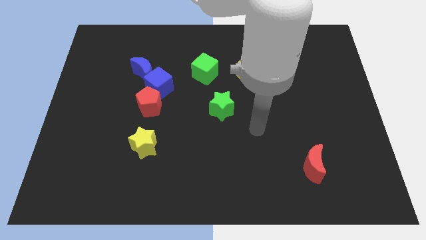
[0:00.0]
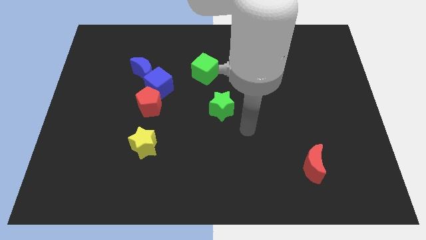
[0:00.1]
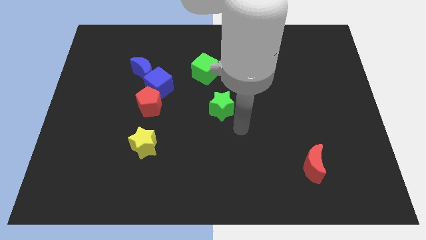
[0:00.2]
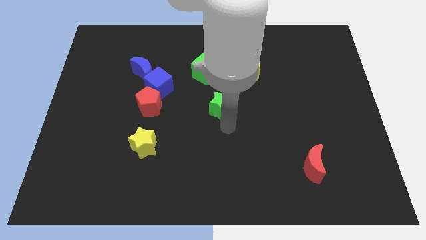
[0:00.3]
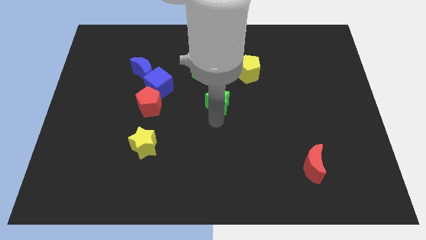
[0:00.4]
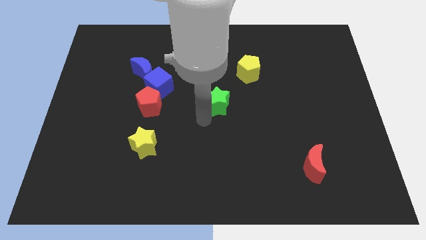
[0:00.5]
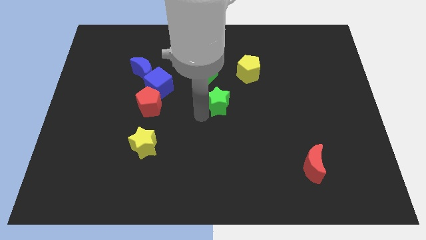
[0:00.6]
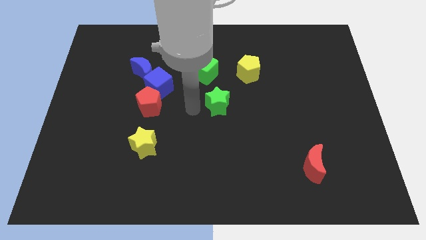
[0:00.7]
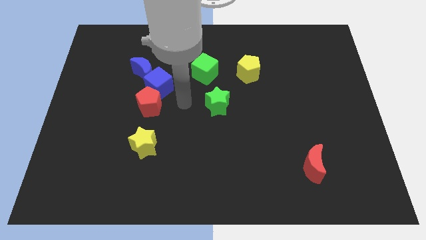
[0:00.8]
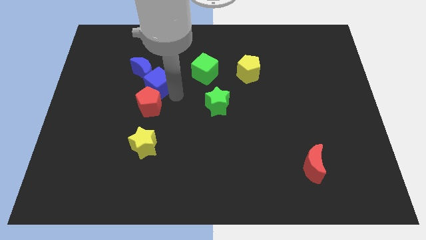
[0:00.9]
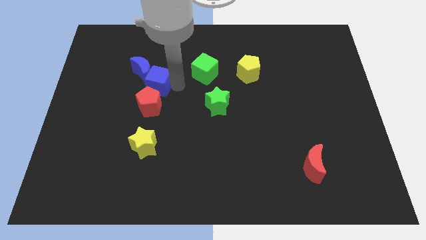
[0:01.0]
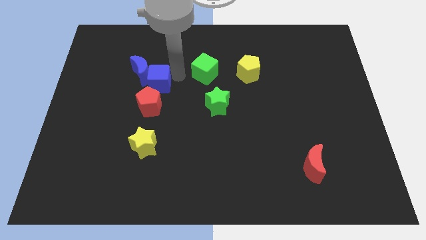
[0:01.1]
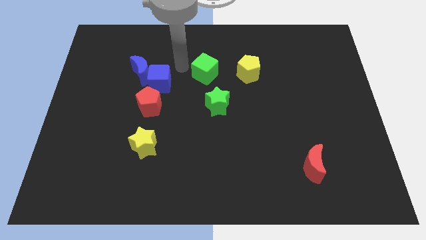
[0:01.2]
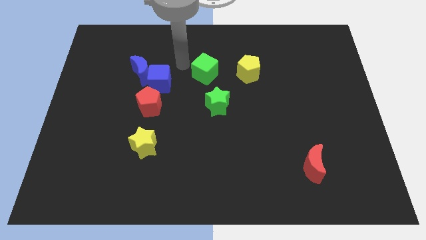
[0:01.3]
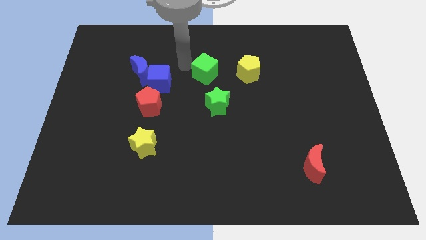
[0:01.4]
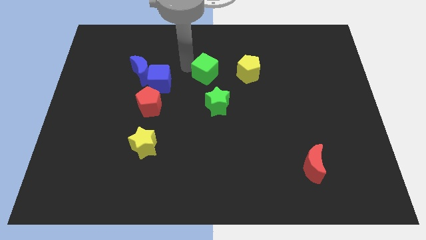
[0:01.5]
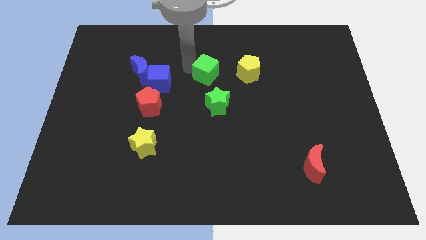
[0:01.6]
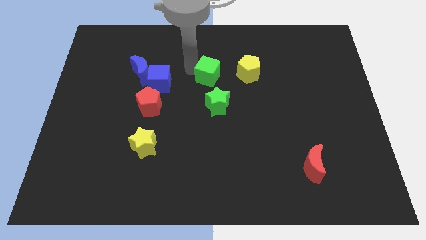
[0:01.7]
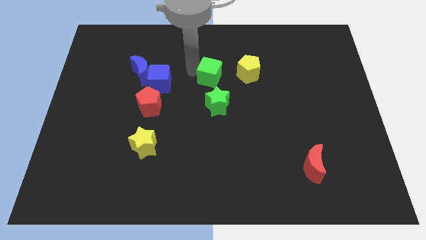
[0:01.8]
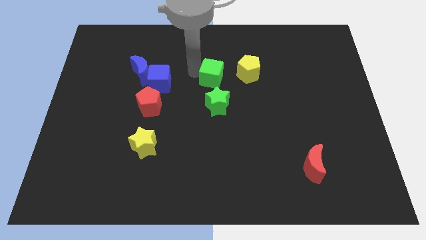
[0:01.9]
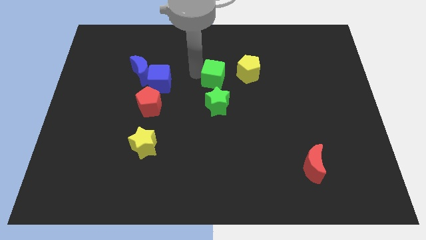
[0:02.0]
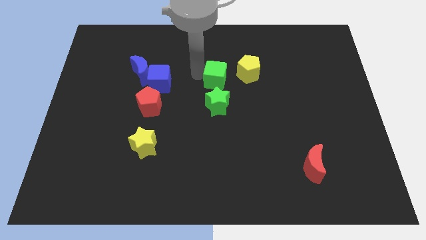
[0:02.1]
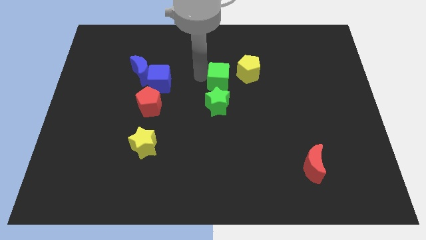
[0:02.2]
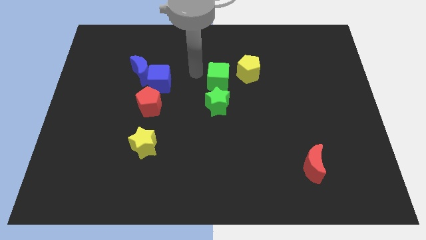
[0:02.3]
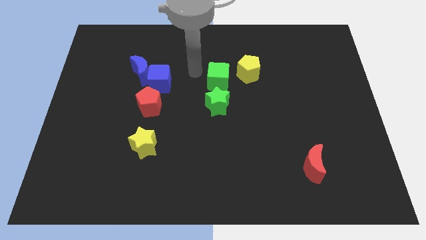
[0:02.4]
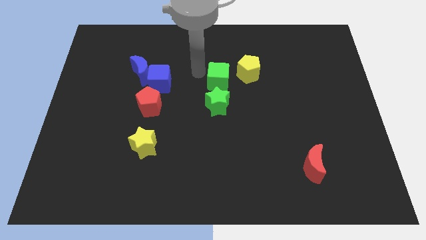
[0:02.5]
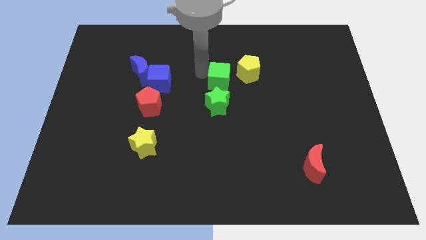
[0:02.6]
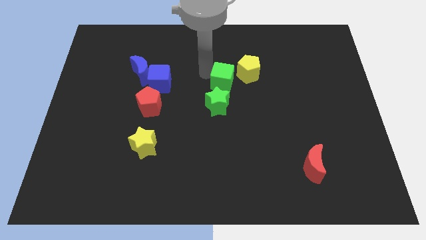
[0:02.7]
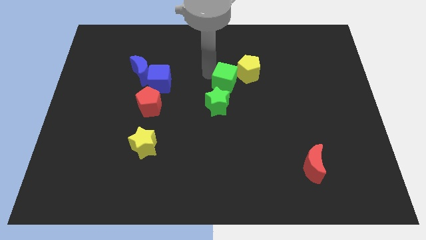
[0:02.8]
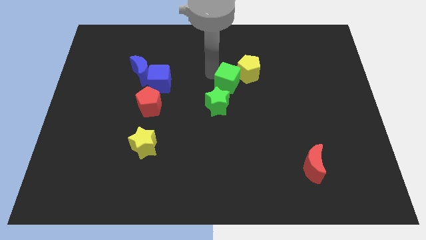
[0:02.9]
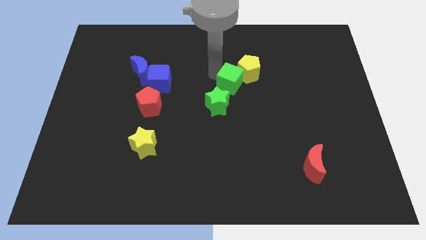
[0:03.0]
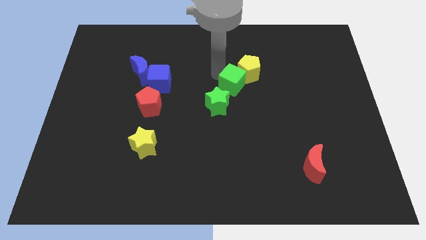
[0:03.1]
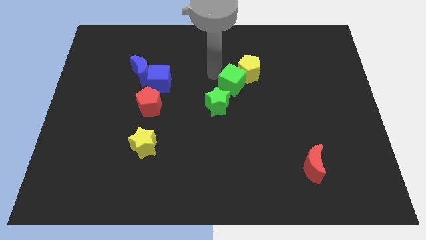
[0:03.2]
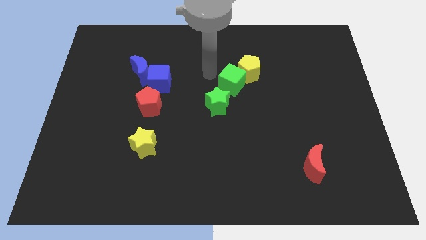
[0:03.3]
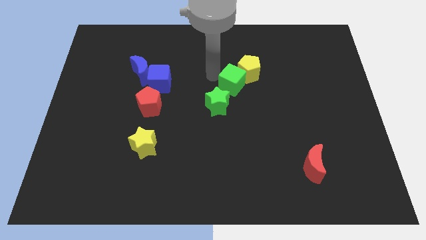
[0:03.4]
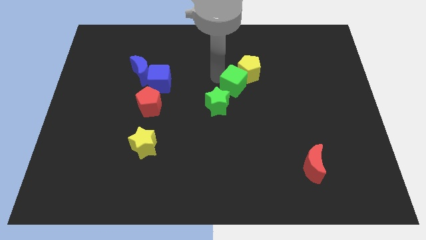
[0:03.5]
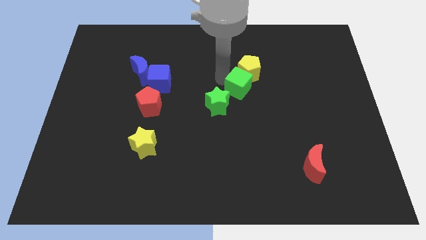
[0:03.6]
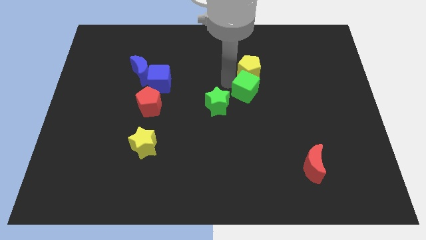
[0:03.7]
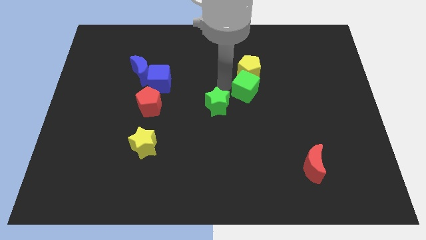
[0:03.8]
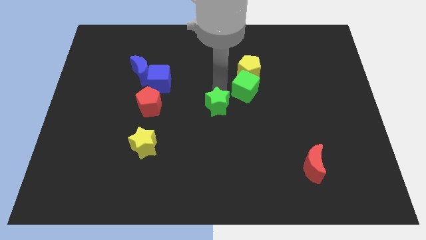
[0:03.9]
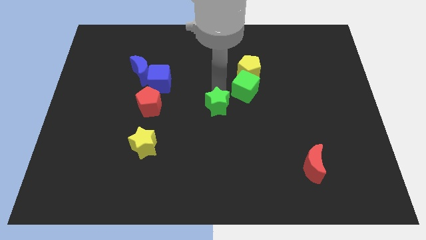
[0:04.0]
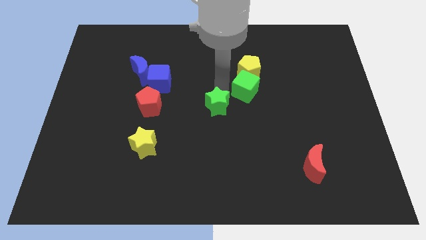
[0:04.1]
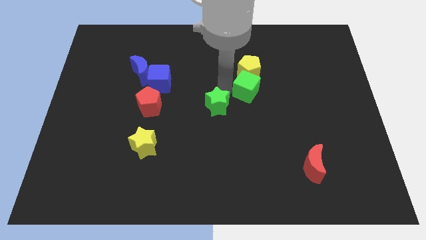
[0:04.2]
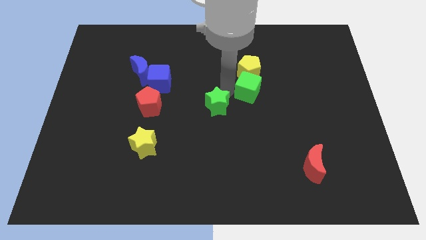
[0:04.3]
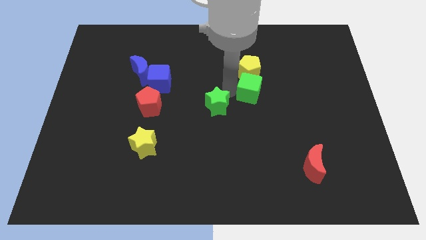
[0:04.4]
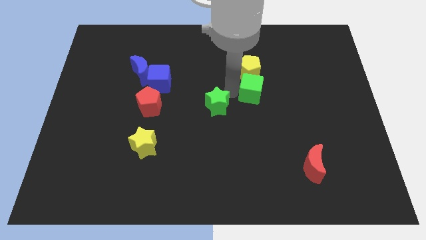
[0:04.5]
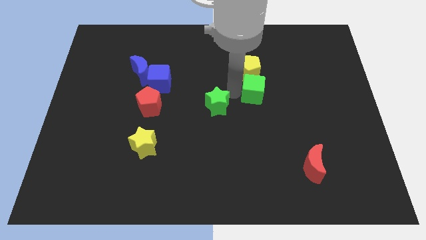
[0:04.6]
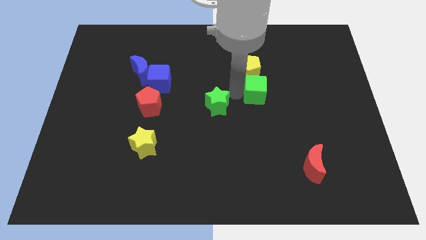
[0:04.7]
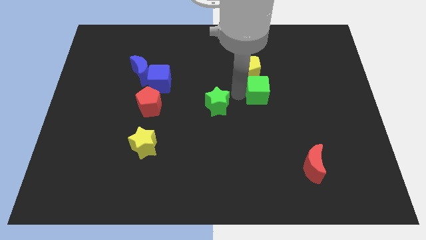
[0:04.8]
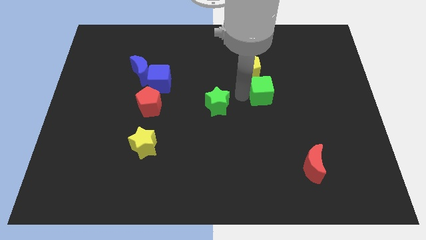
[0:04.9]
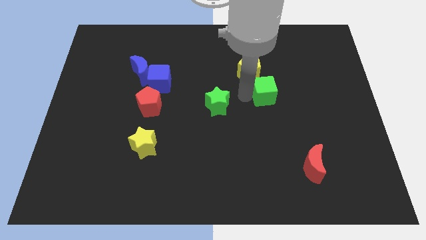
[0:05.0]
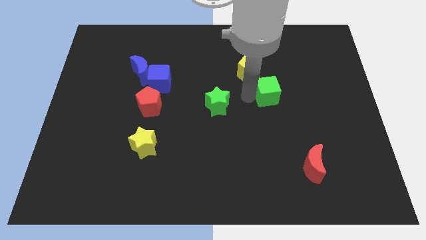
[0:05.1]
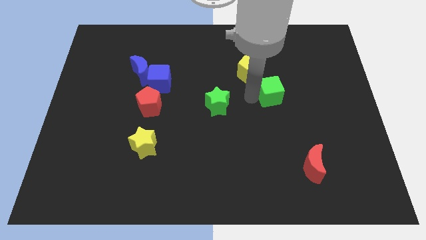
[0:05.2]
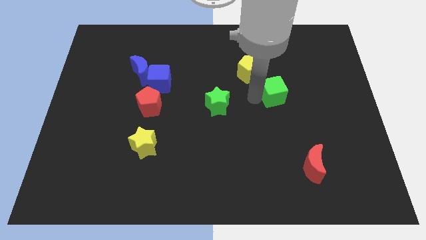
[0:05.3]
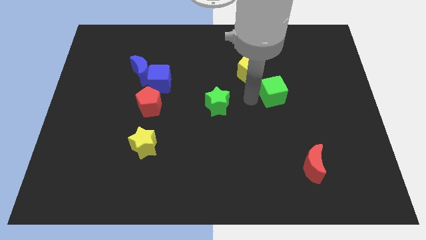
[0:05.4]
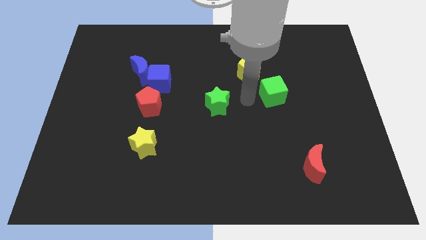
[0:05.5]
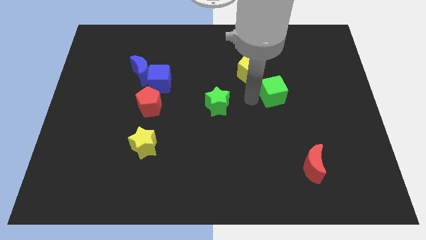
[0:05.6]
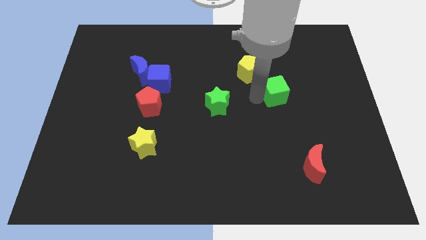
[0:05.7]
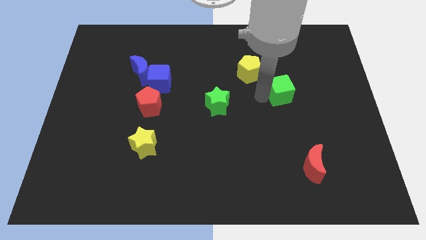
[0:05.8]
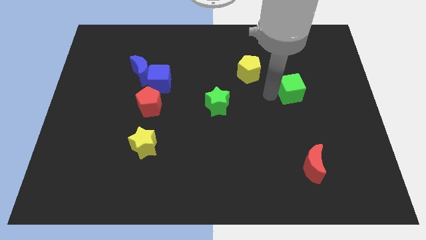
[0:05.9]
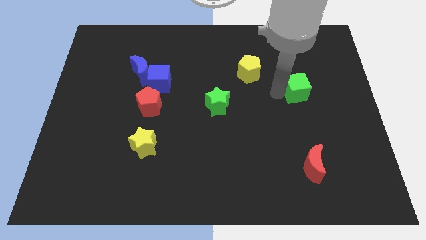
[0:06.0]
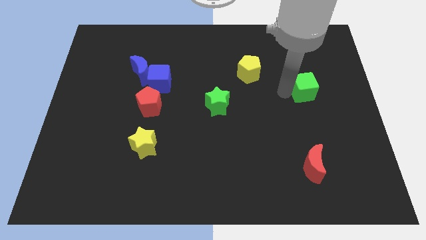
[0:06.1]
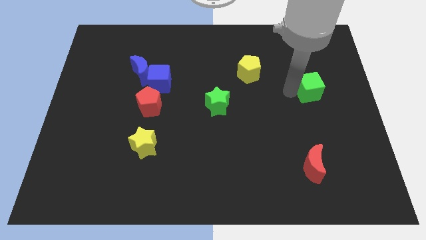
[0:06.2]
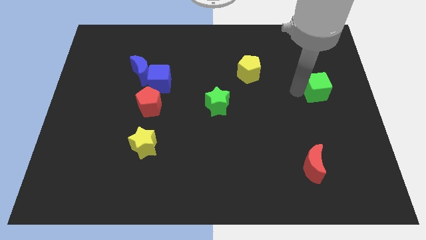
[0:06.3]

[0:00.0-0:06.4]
put the green cube to the right side
